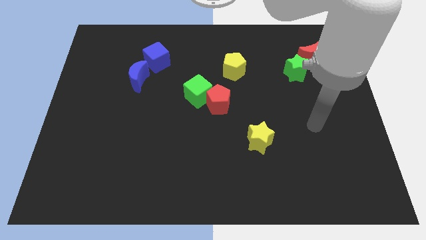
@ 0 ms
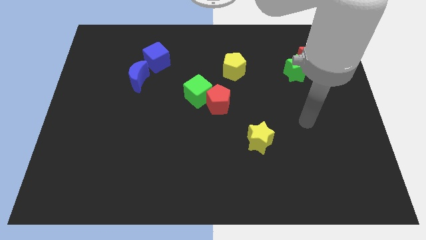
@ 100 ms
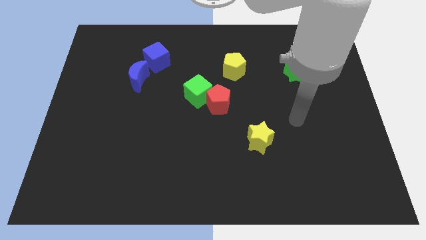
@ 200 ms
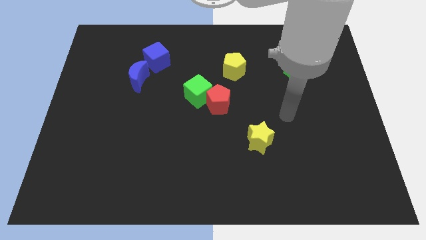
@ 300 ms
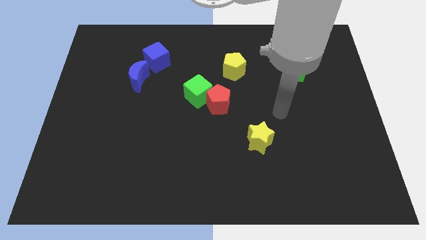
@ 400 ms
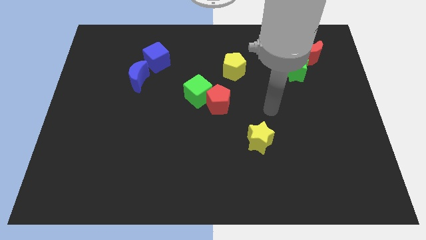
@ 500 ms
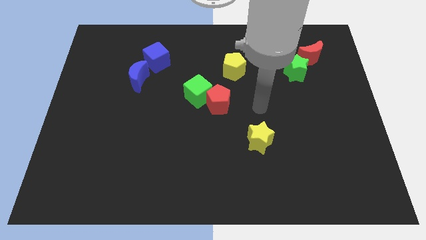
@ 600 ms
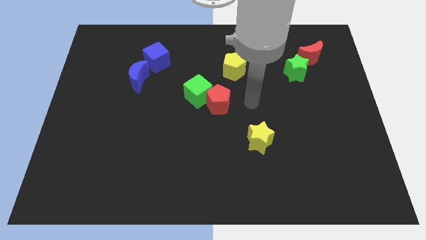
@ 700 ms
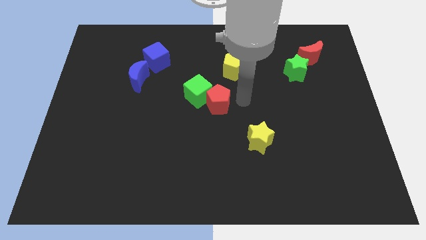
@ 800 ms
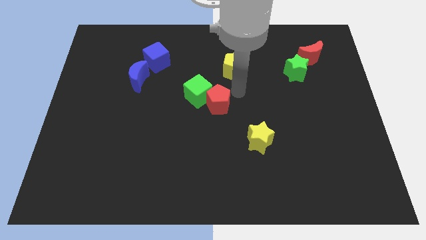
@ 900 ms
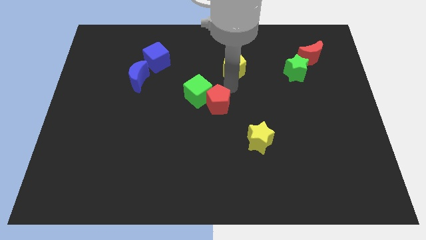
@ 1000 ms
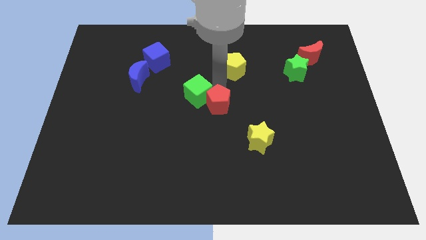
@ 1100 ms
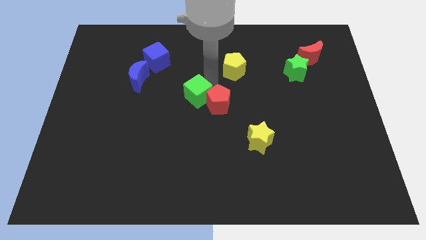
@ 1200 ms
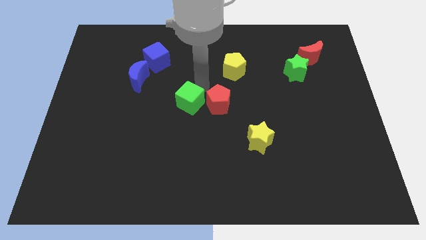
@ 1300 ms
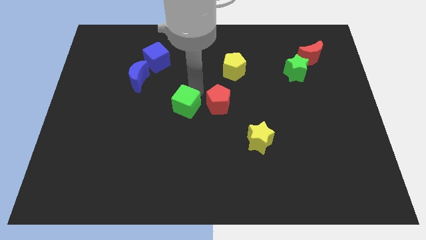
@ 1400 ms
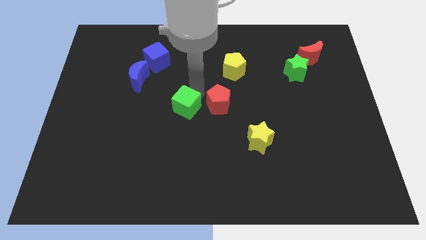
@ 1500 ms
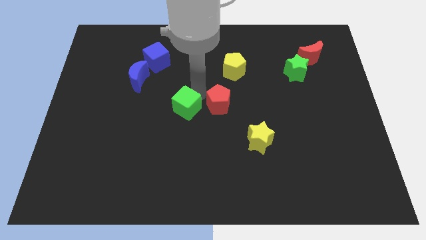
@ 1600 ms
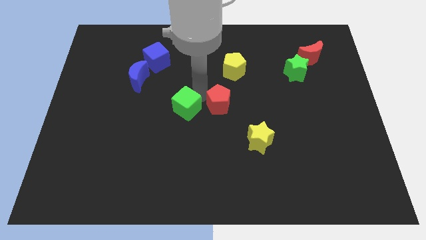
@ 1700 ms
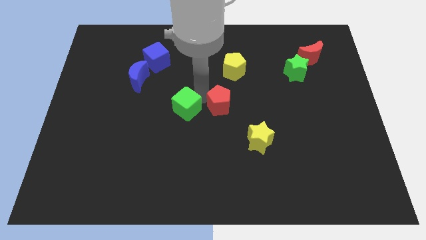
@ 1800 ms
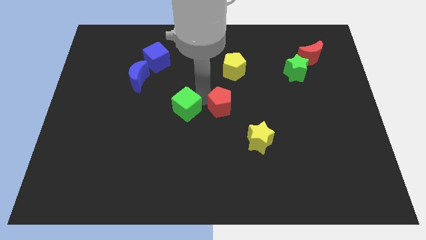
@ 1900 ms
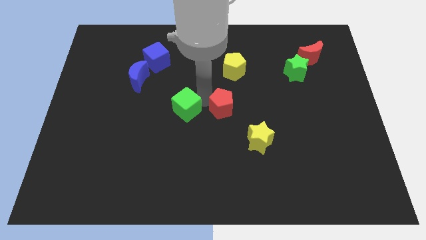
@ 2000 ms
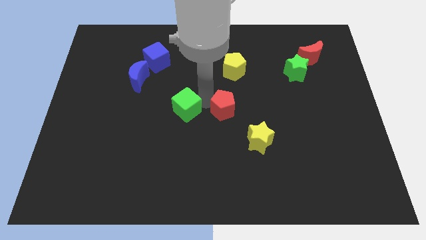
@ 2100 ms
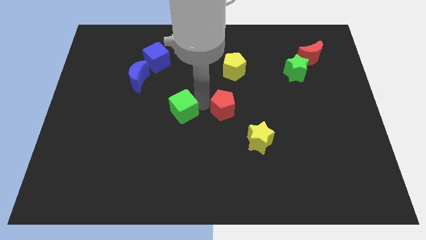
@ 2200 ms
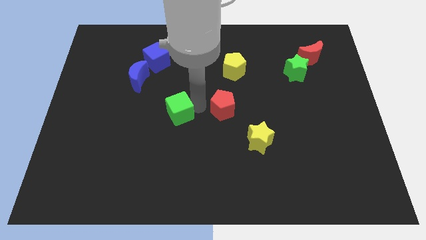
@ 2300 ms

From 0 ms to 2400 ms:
pull the red pentagon apart from the green cube

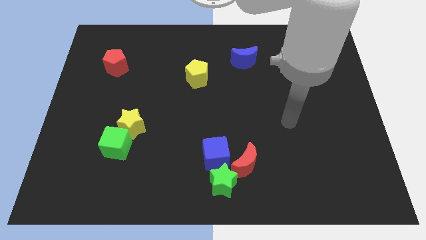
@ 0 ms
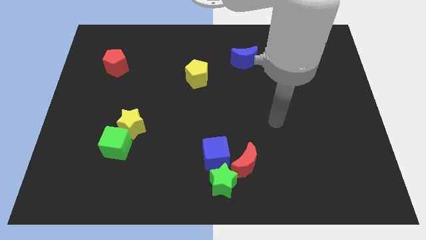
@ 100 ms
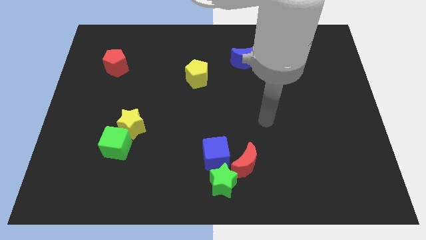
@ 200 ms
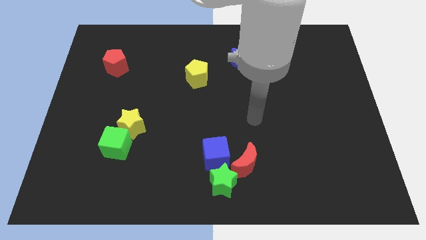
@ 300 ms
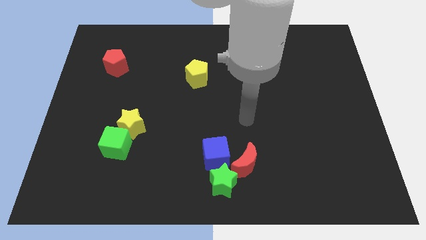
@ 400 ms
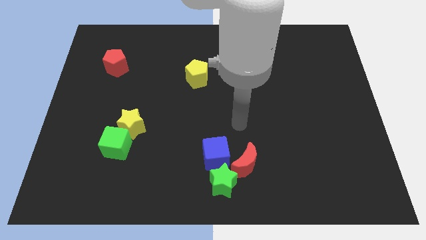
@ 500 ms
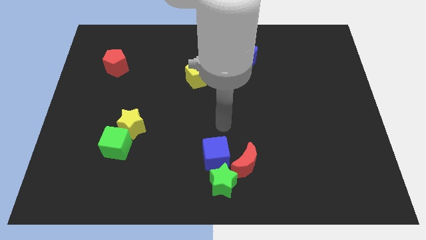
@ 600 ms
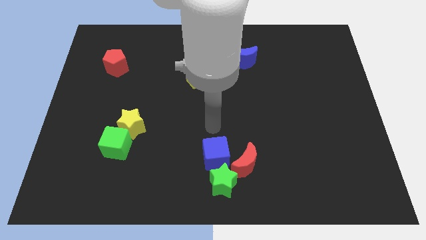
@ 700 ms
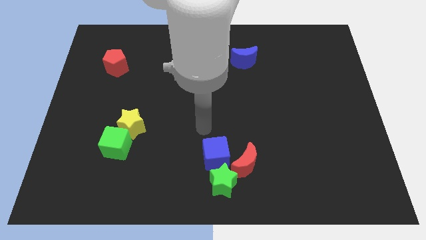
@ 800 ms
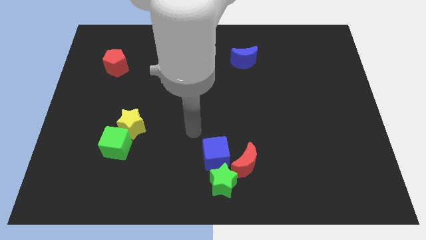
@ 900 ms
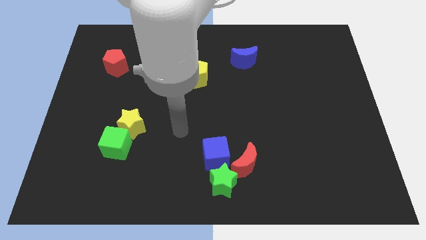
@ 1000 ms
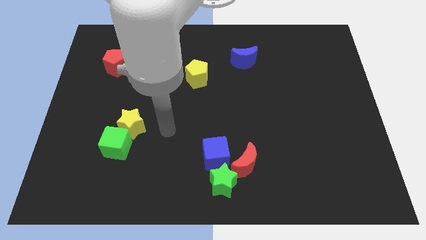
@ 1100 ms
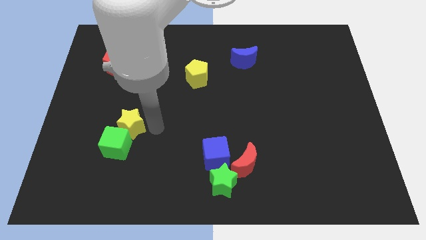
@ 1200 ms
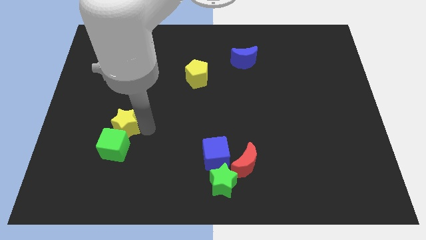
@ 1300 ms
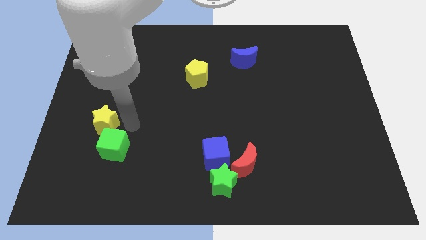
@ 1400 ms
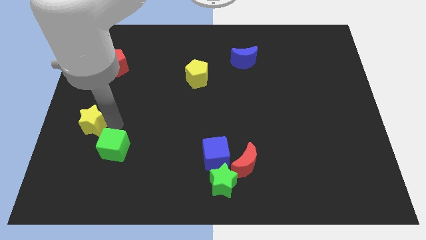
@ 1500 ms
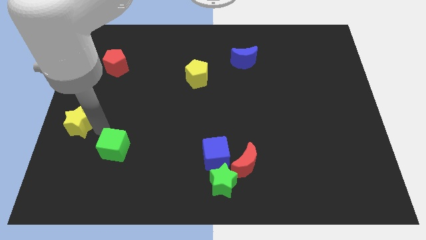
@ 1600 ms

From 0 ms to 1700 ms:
pull the green cube apart from the yellow star

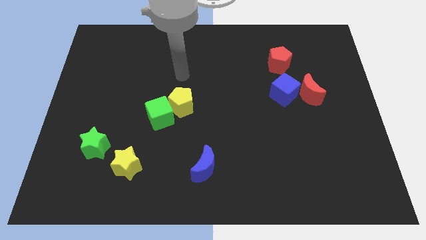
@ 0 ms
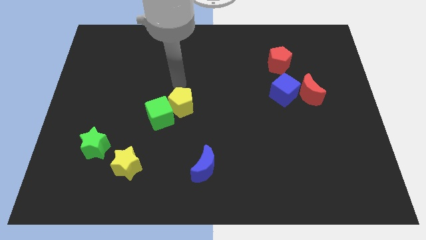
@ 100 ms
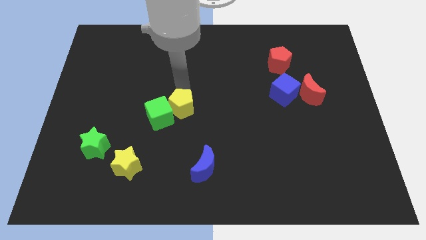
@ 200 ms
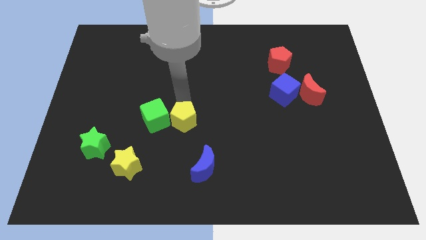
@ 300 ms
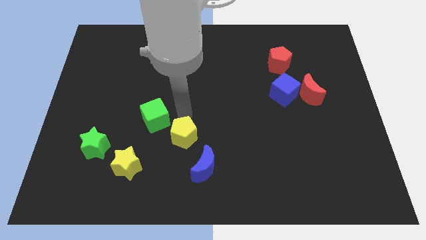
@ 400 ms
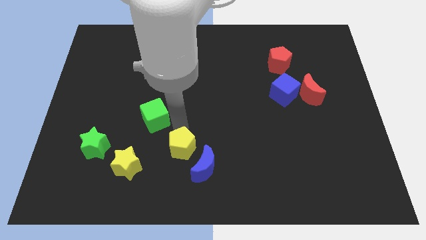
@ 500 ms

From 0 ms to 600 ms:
separate the green cube from the yellow pentagon

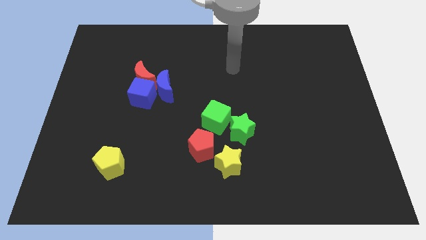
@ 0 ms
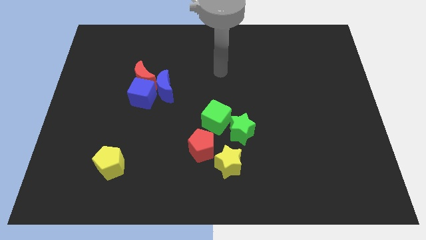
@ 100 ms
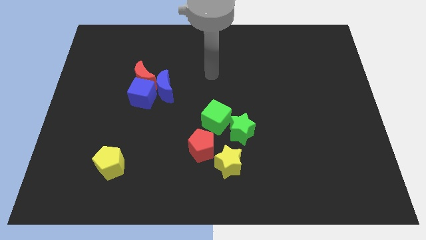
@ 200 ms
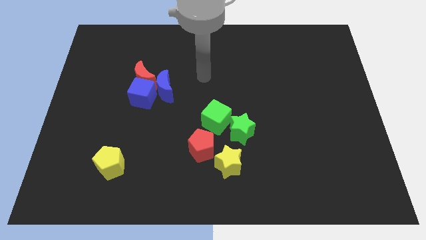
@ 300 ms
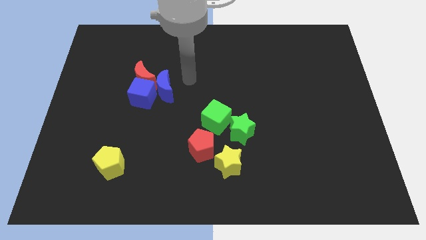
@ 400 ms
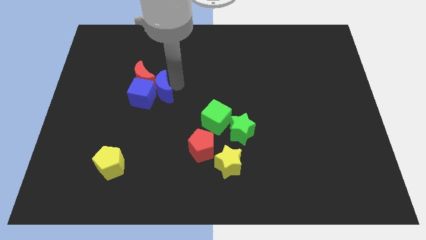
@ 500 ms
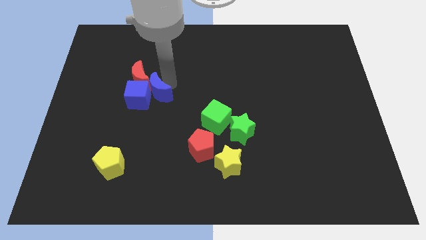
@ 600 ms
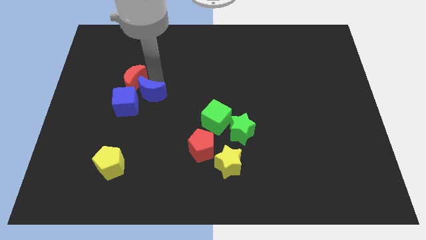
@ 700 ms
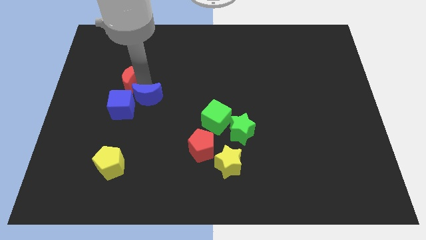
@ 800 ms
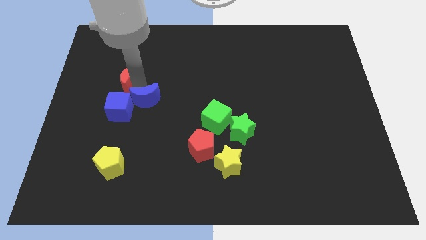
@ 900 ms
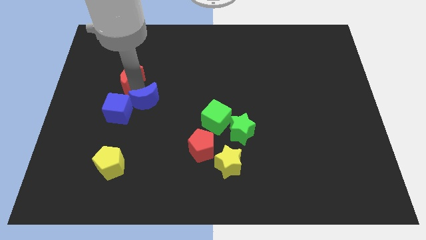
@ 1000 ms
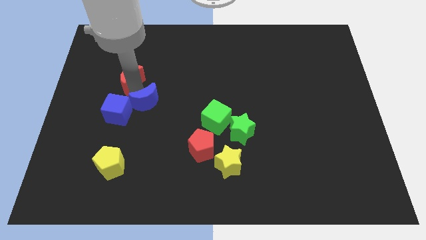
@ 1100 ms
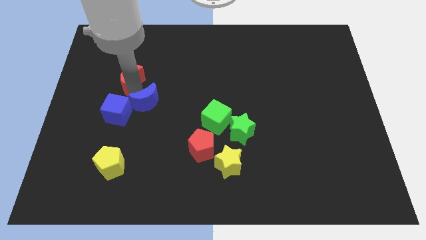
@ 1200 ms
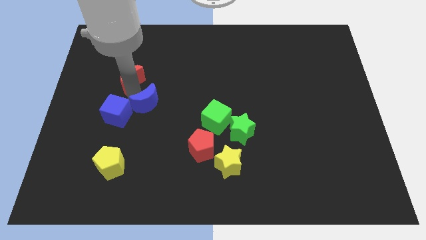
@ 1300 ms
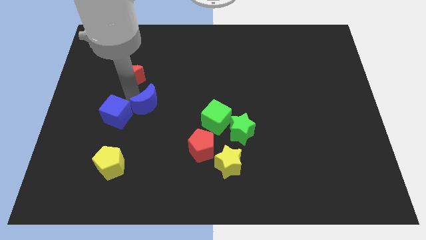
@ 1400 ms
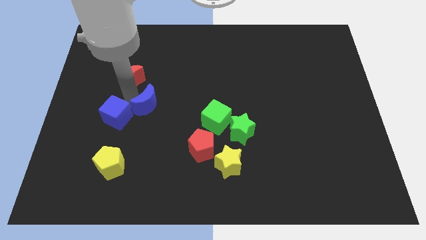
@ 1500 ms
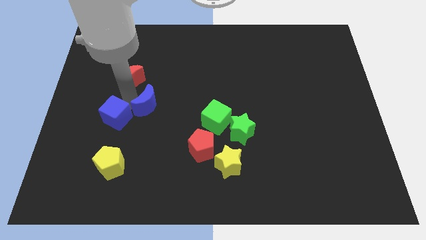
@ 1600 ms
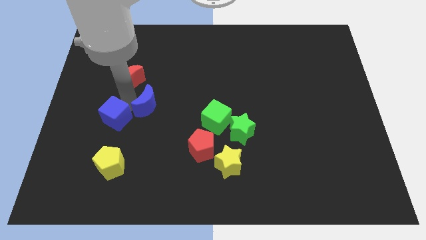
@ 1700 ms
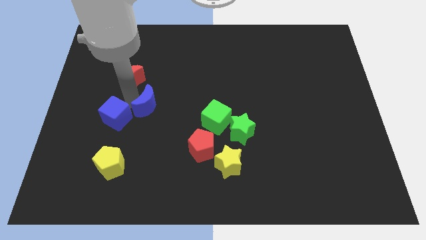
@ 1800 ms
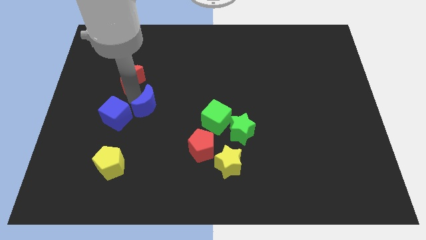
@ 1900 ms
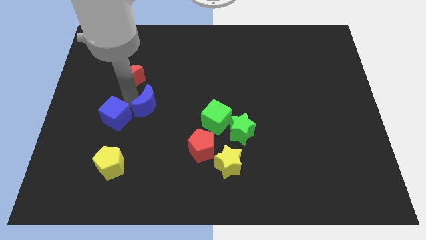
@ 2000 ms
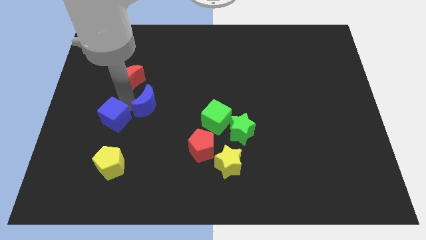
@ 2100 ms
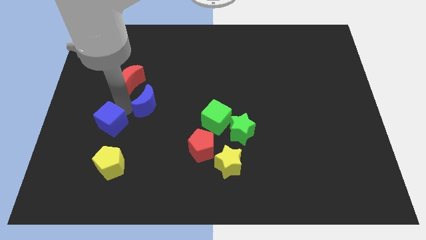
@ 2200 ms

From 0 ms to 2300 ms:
pull the blue cube apart from the red moon and blue moon

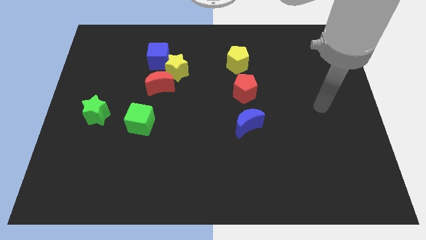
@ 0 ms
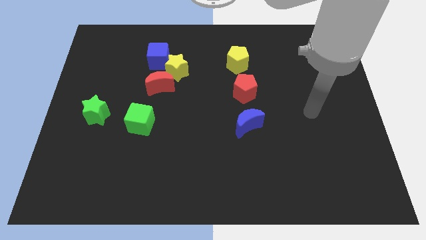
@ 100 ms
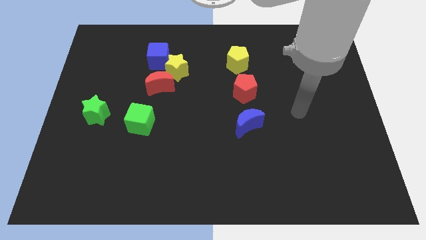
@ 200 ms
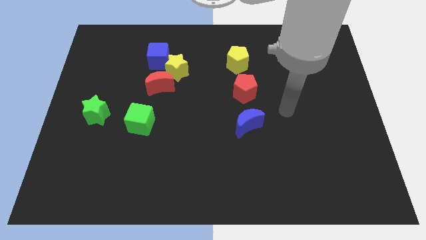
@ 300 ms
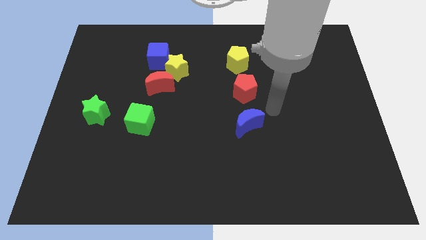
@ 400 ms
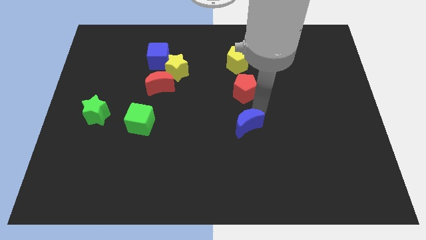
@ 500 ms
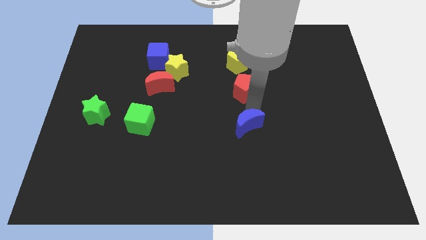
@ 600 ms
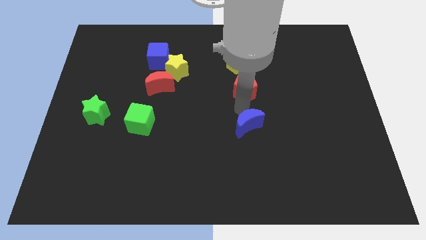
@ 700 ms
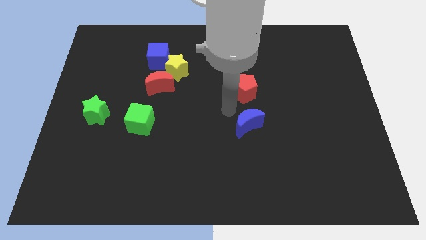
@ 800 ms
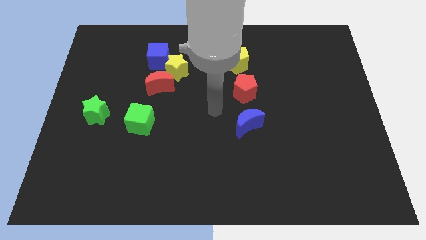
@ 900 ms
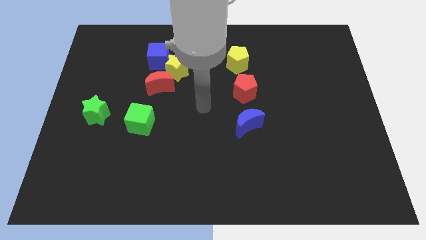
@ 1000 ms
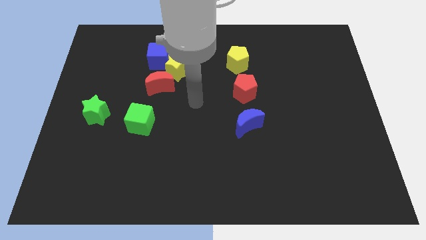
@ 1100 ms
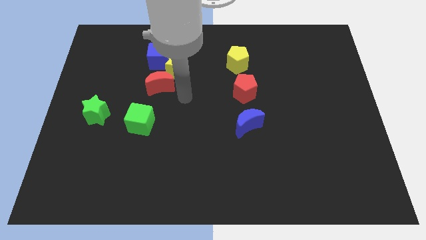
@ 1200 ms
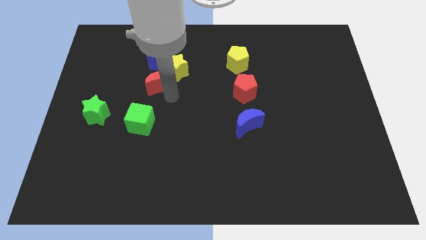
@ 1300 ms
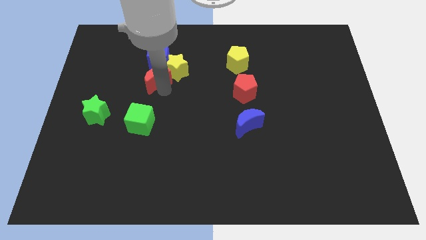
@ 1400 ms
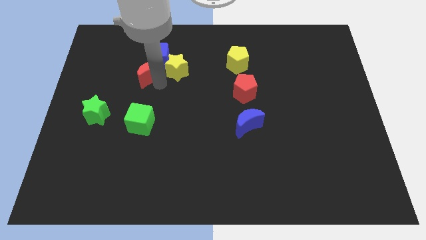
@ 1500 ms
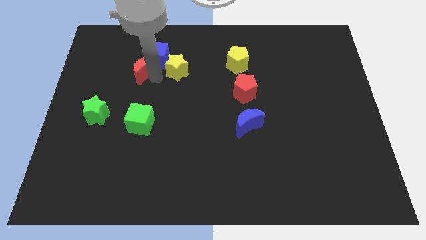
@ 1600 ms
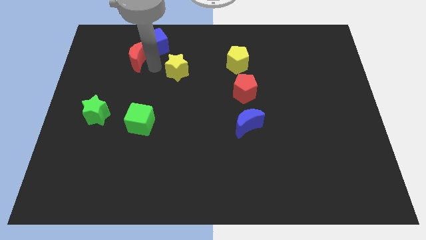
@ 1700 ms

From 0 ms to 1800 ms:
pull the yellow star apart from the blue cube and red moon

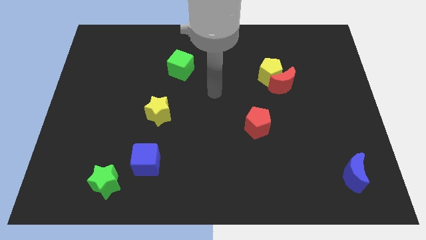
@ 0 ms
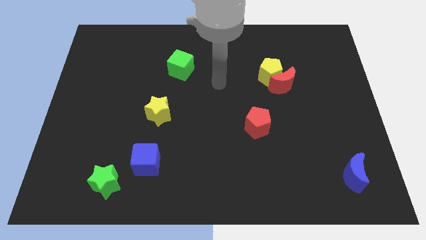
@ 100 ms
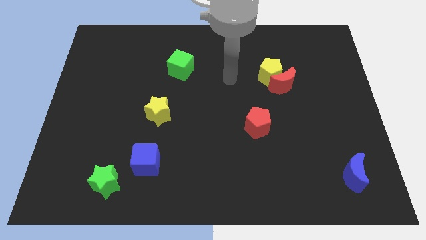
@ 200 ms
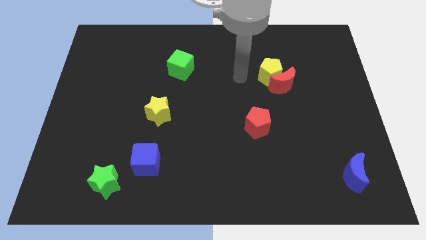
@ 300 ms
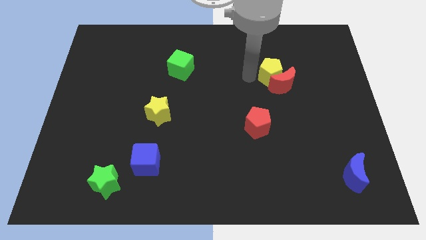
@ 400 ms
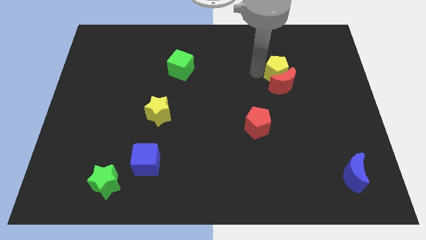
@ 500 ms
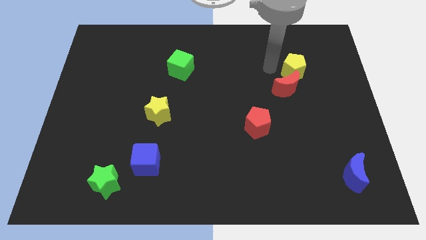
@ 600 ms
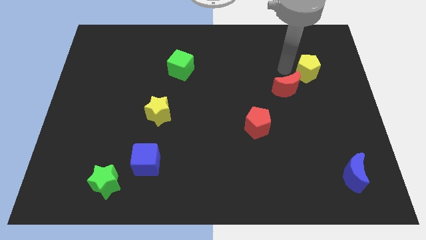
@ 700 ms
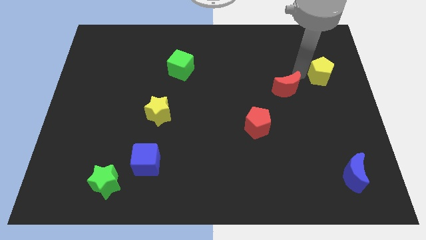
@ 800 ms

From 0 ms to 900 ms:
move the red moon away from the yellow pentagon
